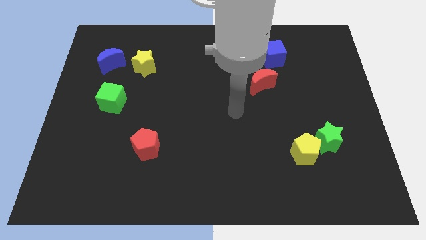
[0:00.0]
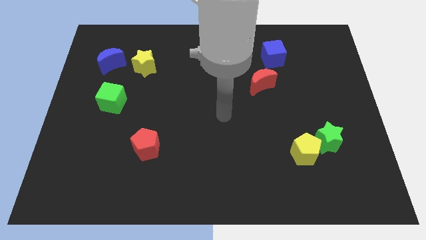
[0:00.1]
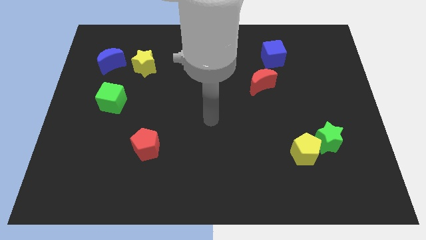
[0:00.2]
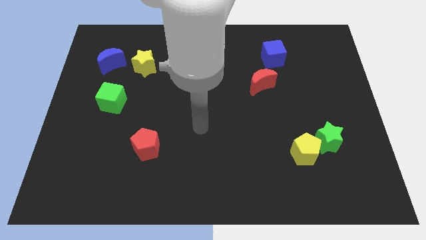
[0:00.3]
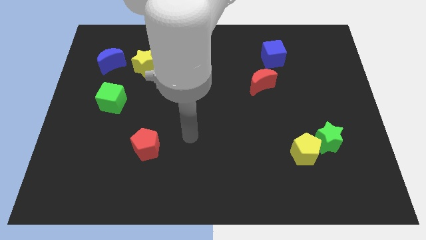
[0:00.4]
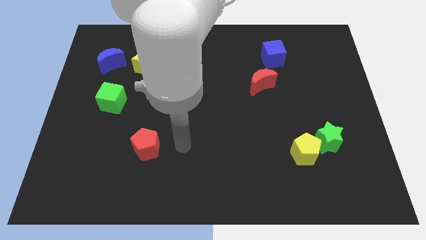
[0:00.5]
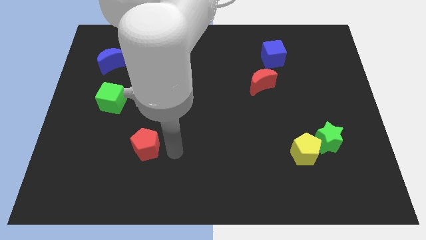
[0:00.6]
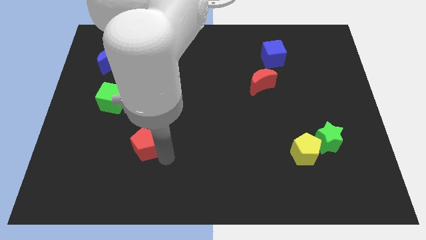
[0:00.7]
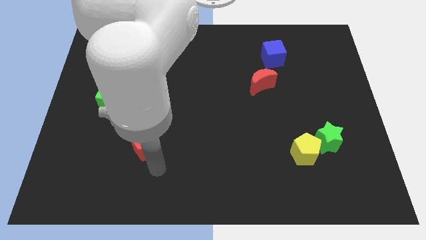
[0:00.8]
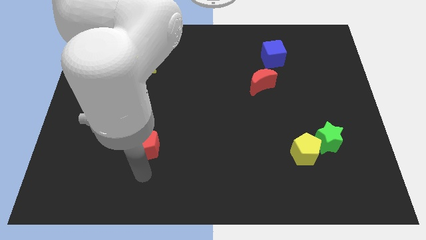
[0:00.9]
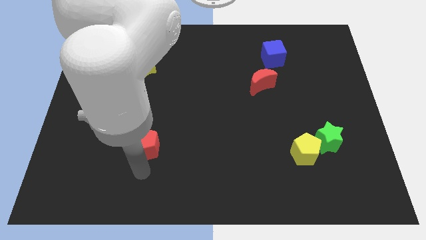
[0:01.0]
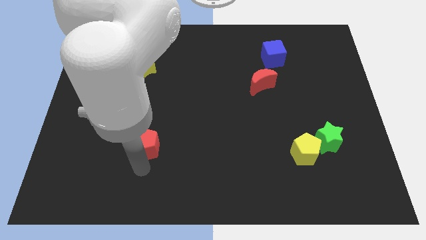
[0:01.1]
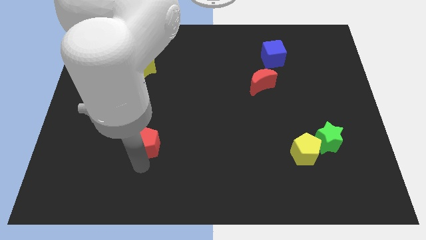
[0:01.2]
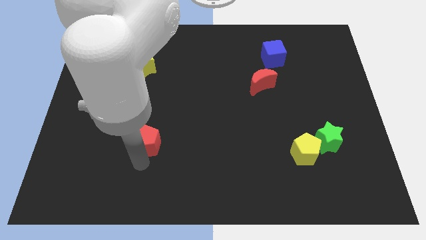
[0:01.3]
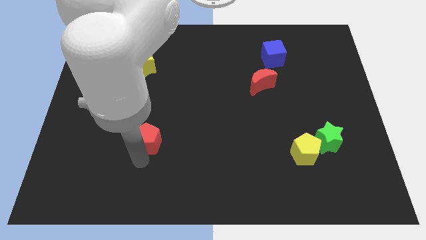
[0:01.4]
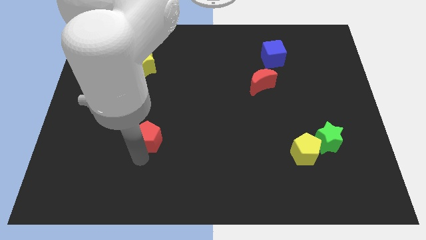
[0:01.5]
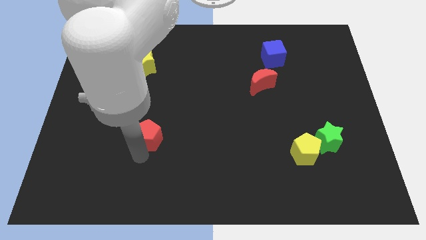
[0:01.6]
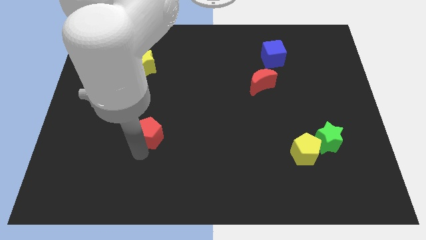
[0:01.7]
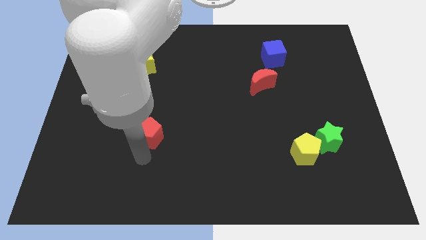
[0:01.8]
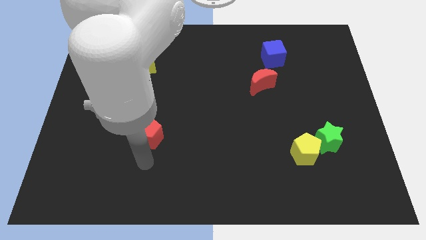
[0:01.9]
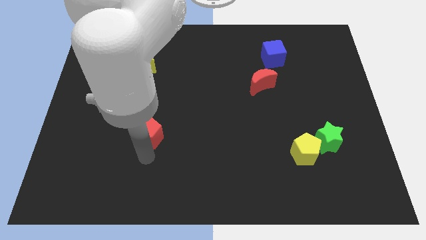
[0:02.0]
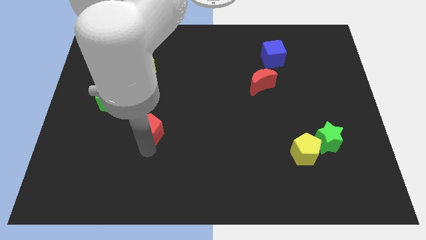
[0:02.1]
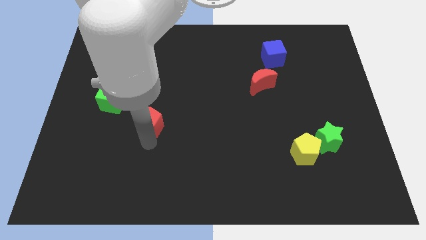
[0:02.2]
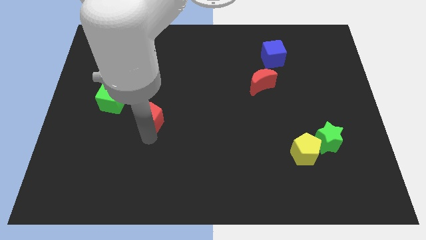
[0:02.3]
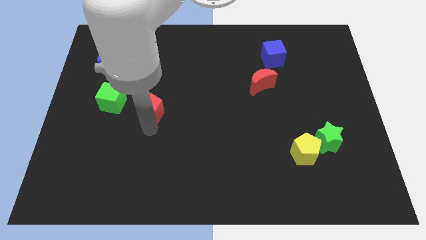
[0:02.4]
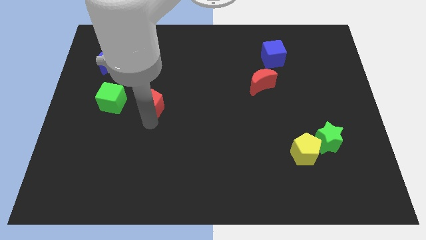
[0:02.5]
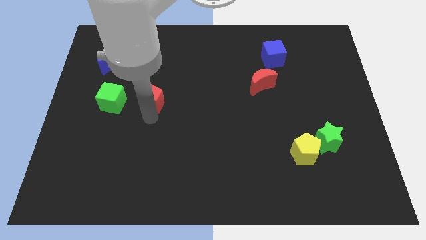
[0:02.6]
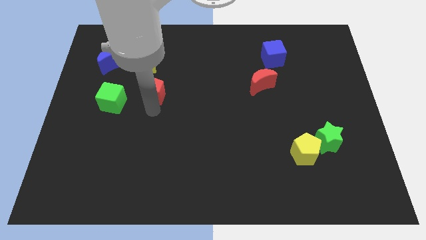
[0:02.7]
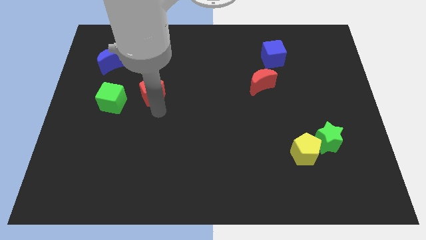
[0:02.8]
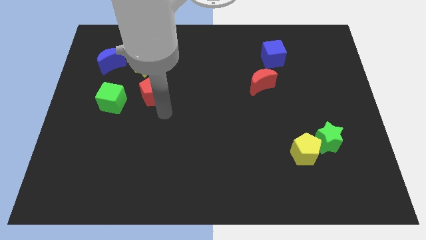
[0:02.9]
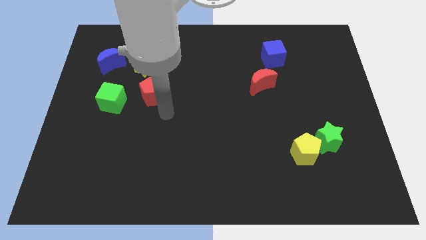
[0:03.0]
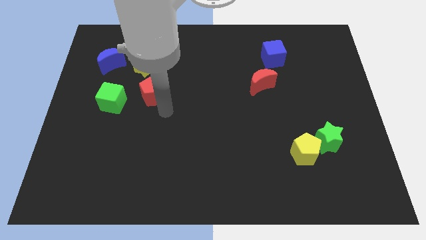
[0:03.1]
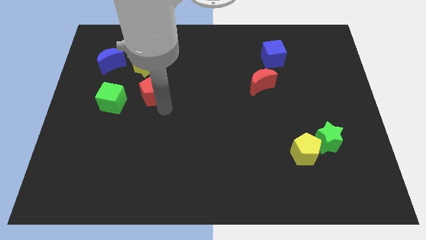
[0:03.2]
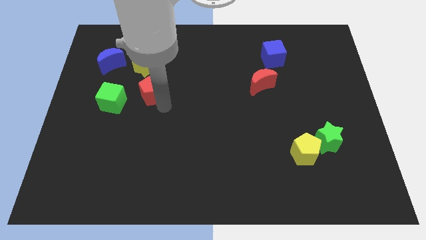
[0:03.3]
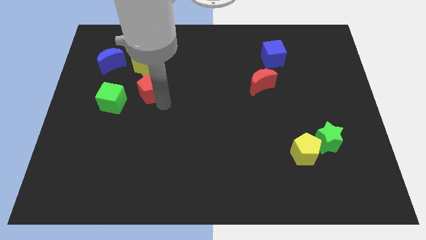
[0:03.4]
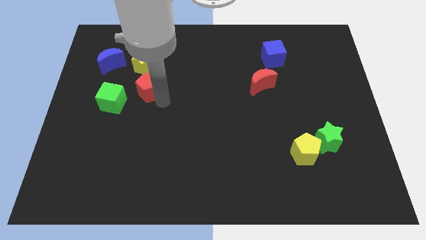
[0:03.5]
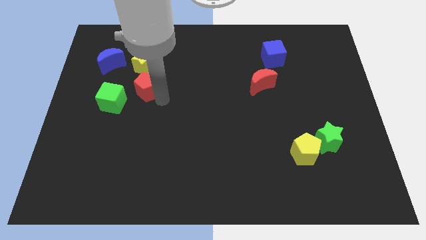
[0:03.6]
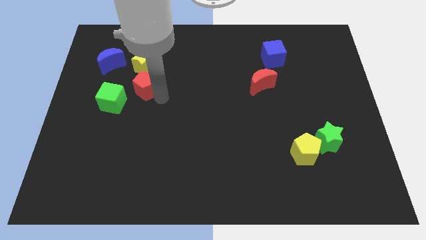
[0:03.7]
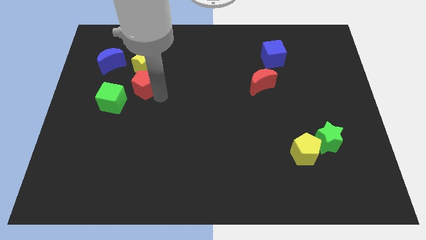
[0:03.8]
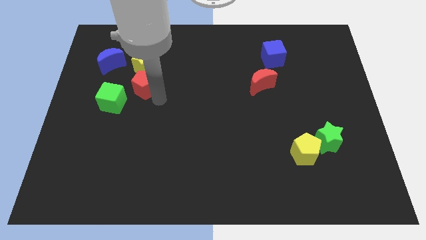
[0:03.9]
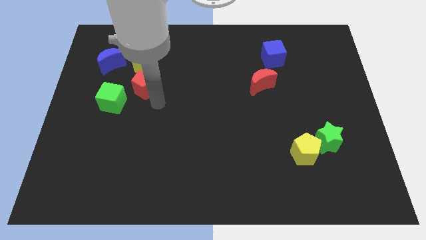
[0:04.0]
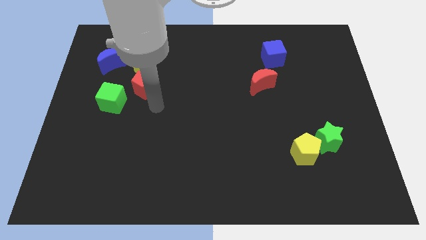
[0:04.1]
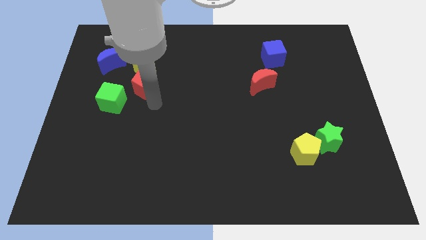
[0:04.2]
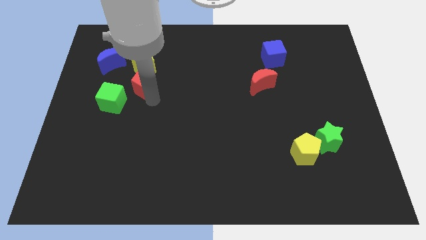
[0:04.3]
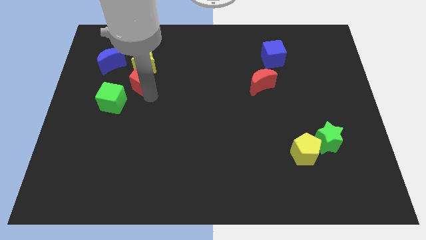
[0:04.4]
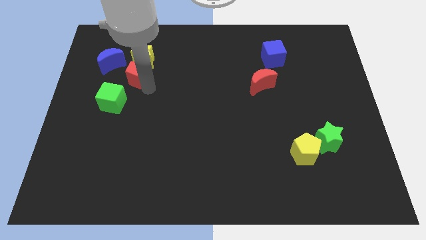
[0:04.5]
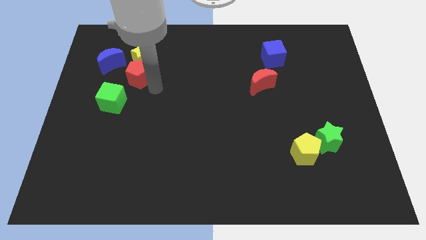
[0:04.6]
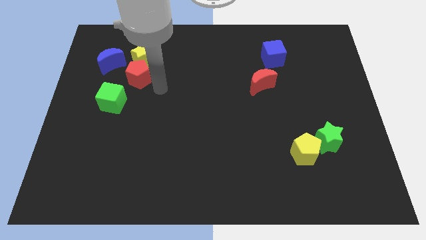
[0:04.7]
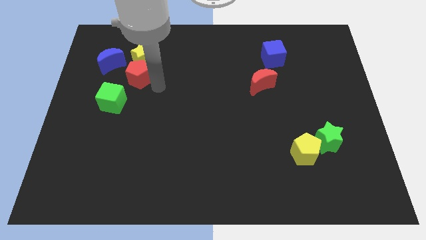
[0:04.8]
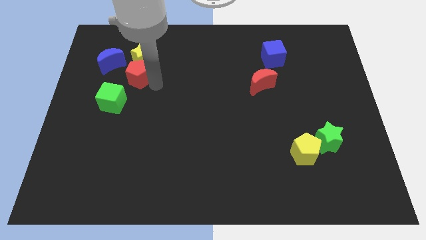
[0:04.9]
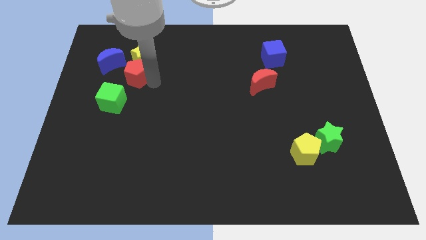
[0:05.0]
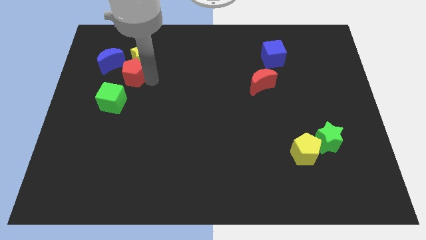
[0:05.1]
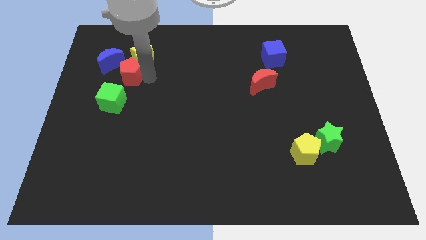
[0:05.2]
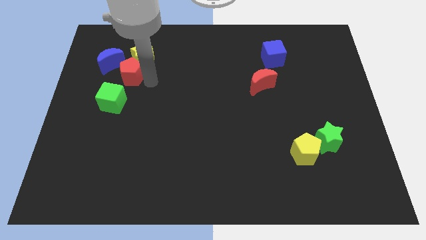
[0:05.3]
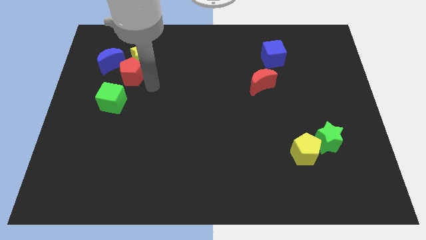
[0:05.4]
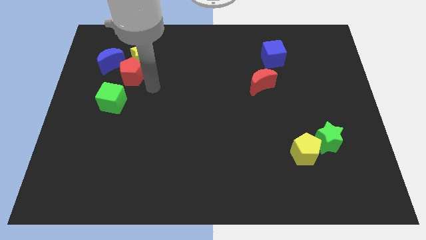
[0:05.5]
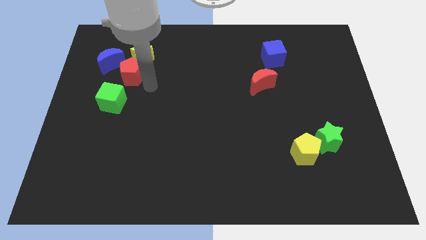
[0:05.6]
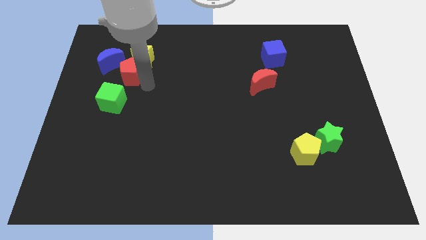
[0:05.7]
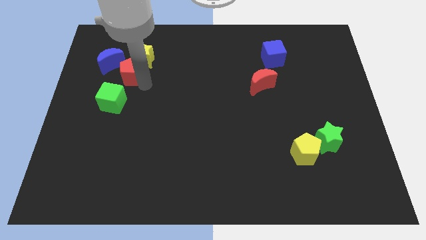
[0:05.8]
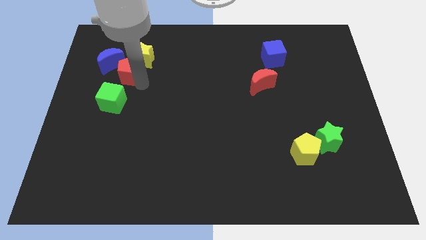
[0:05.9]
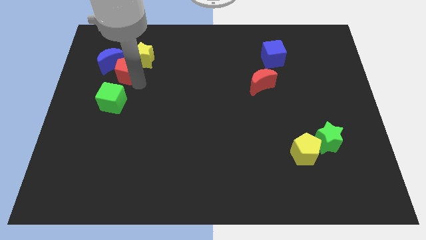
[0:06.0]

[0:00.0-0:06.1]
push the red pentagon close to the blue moon
